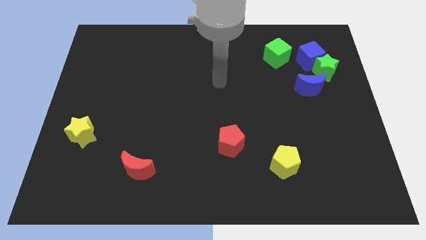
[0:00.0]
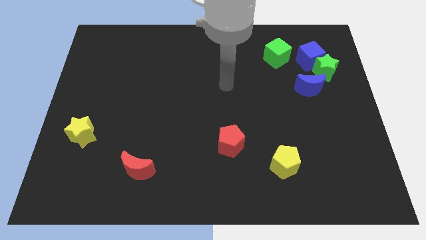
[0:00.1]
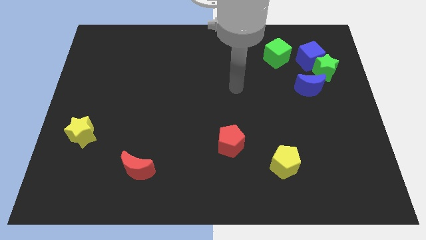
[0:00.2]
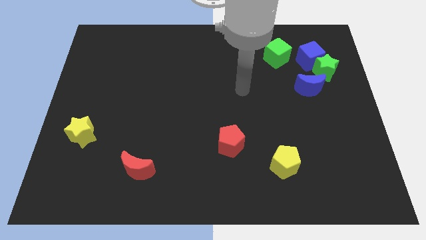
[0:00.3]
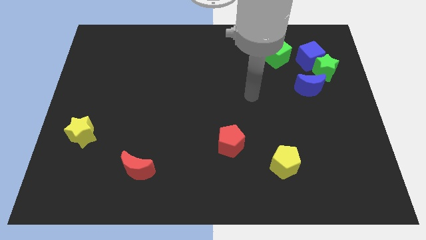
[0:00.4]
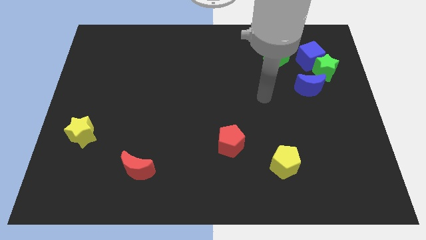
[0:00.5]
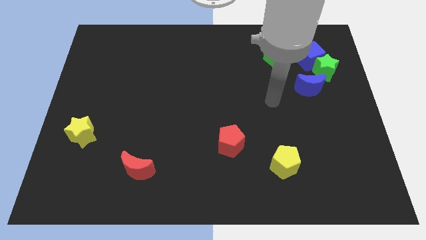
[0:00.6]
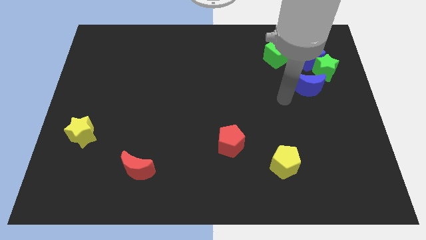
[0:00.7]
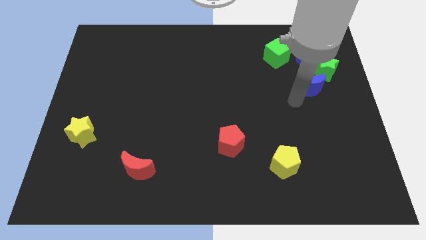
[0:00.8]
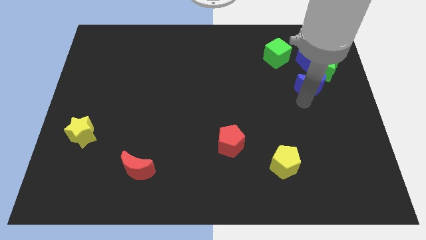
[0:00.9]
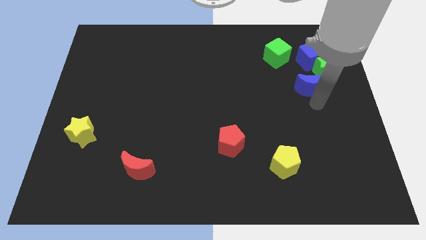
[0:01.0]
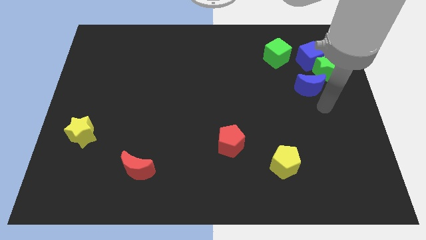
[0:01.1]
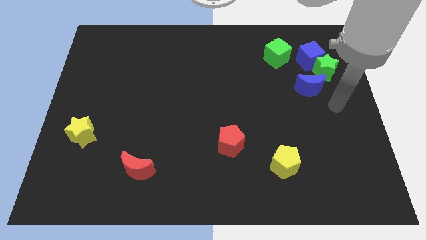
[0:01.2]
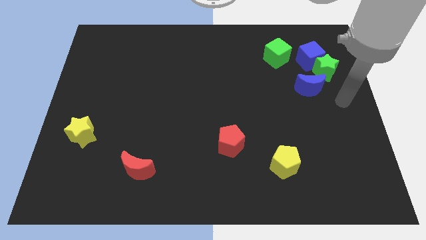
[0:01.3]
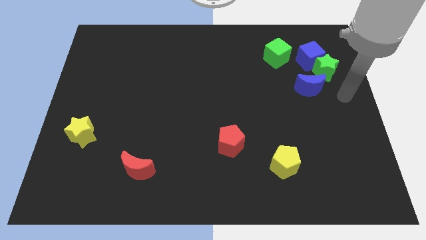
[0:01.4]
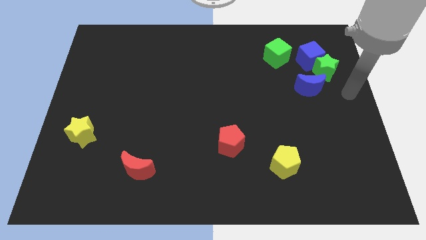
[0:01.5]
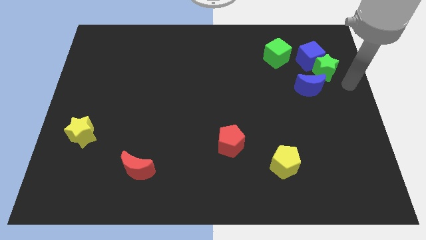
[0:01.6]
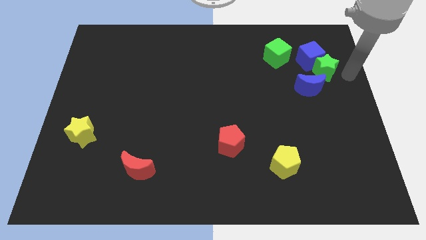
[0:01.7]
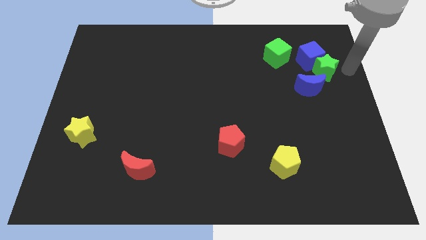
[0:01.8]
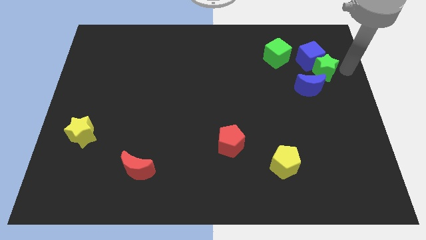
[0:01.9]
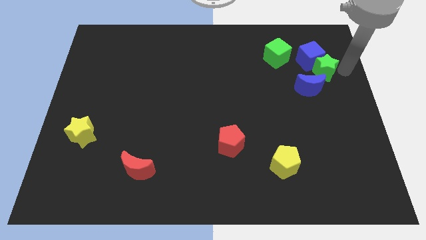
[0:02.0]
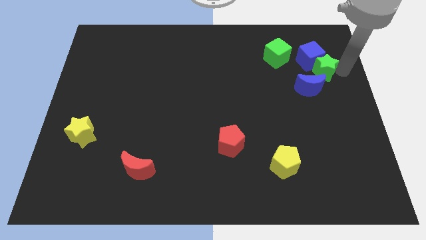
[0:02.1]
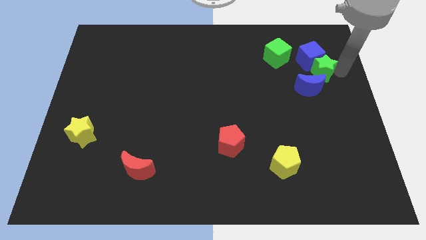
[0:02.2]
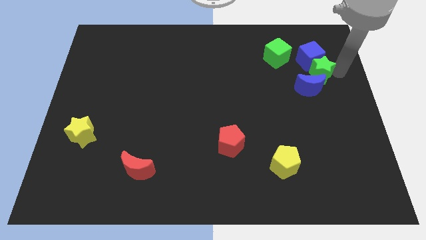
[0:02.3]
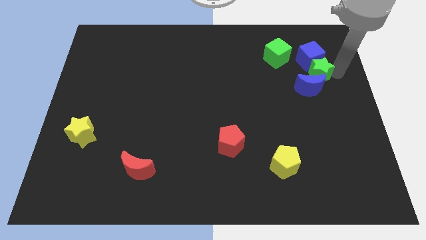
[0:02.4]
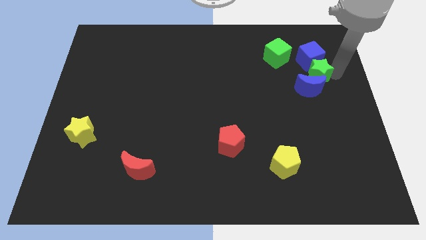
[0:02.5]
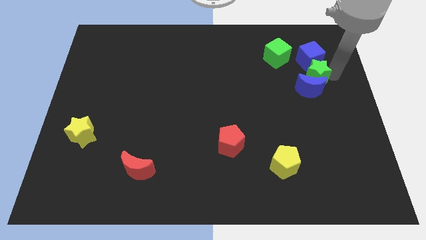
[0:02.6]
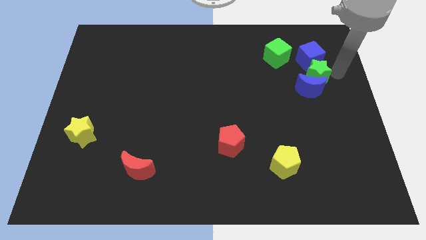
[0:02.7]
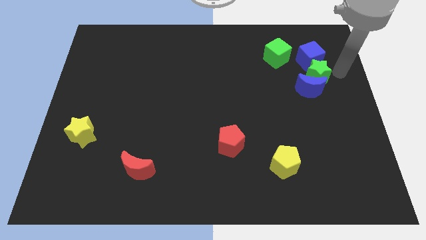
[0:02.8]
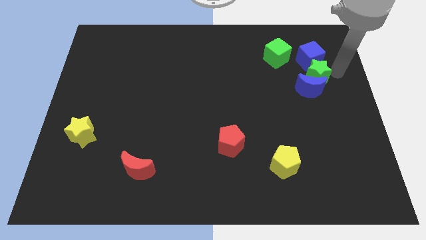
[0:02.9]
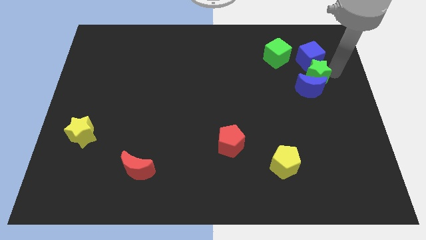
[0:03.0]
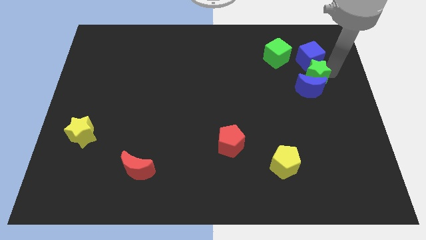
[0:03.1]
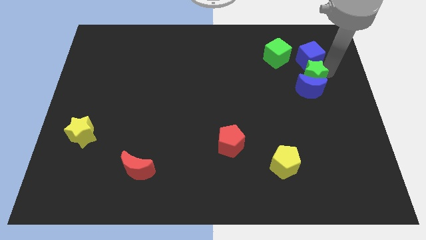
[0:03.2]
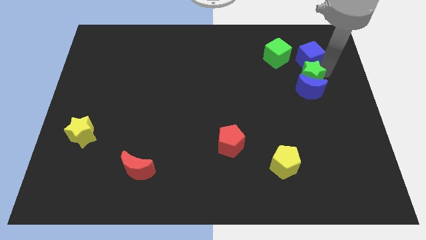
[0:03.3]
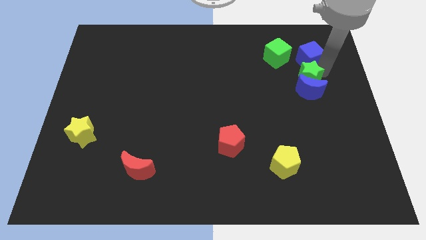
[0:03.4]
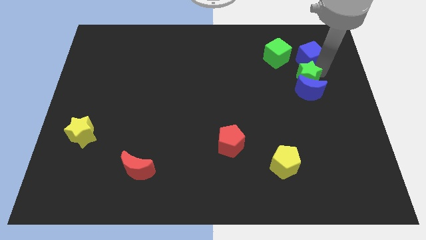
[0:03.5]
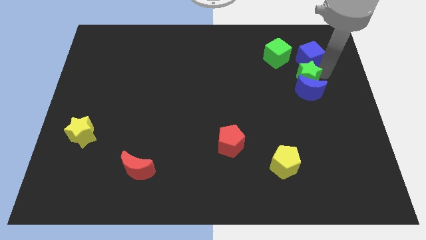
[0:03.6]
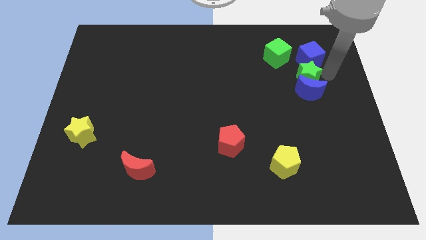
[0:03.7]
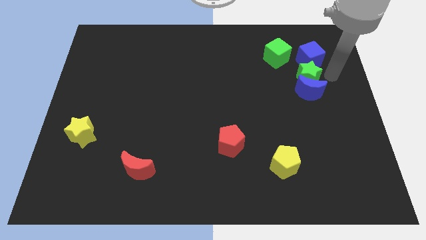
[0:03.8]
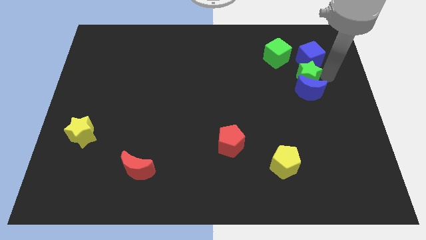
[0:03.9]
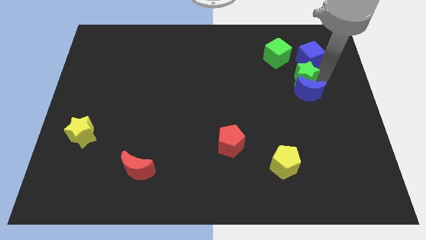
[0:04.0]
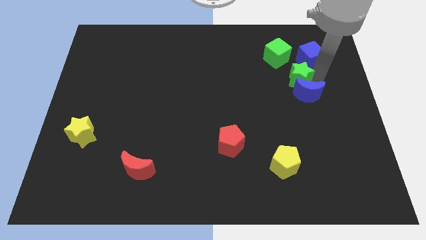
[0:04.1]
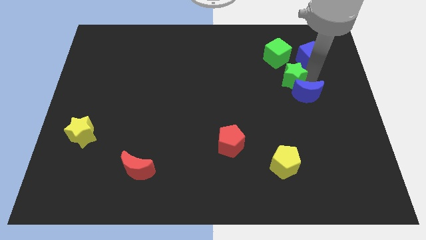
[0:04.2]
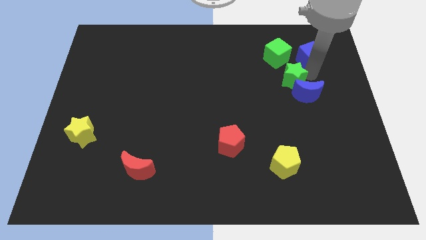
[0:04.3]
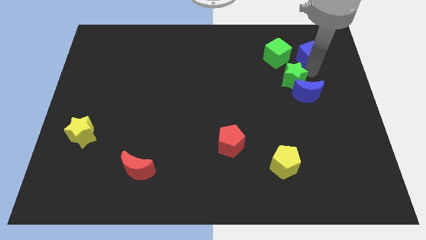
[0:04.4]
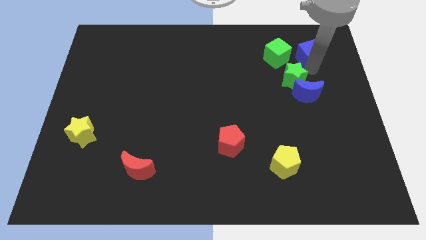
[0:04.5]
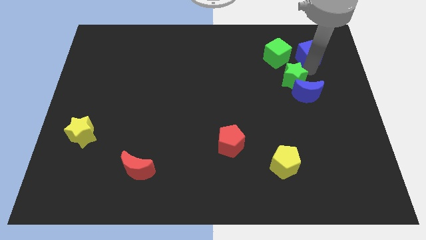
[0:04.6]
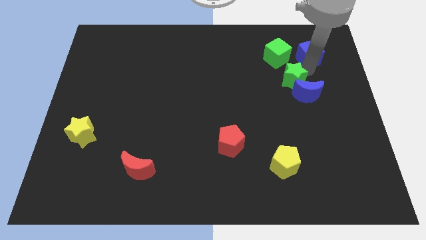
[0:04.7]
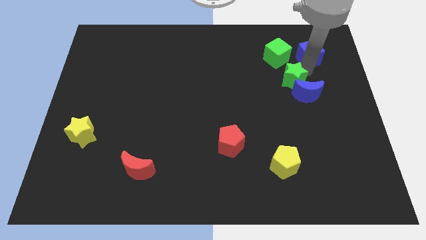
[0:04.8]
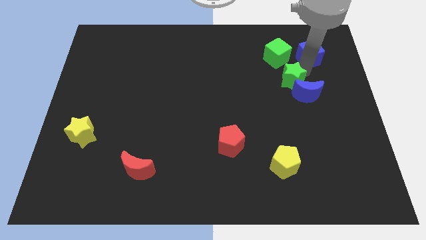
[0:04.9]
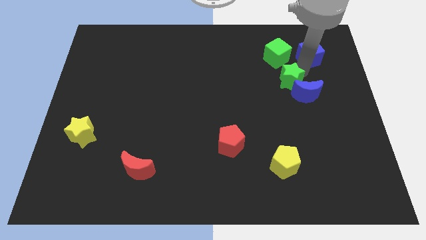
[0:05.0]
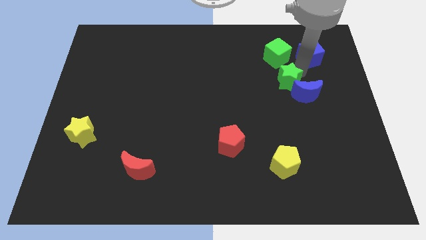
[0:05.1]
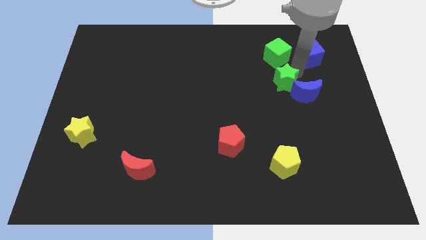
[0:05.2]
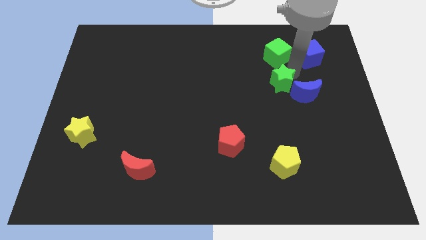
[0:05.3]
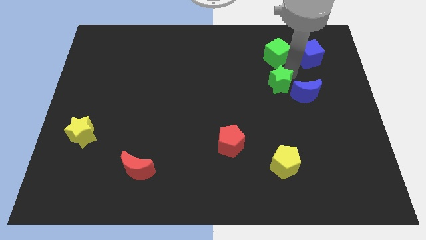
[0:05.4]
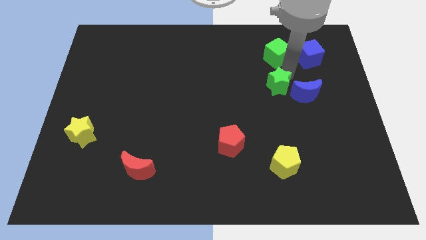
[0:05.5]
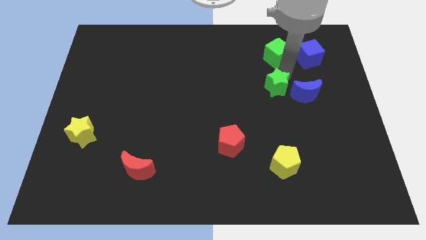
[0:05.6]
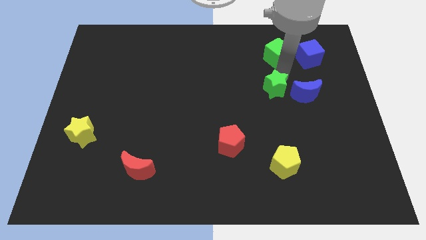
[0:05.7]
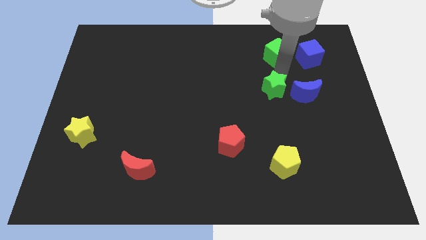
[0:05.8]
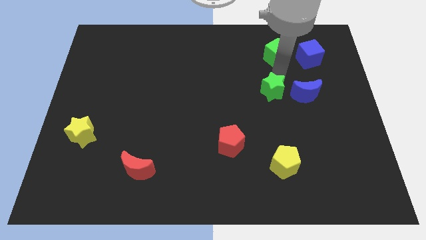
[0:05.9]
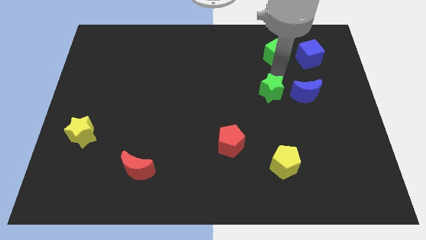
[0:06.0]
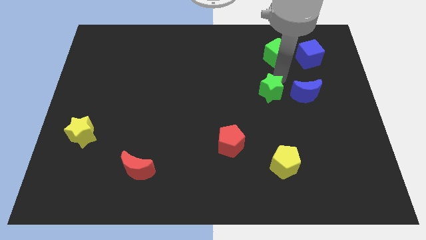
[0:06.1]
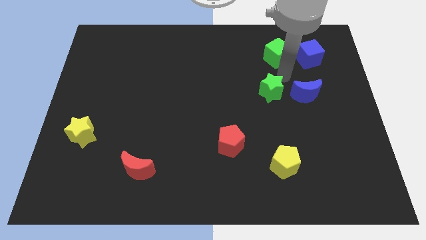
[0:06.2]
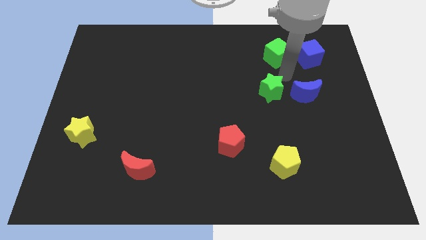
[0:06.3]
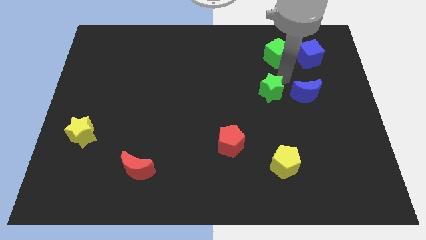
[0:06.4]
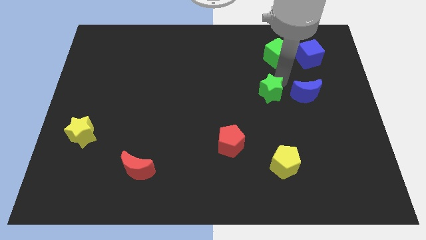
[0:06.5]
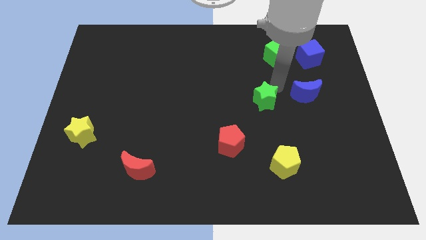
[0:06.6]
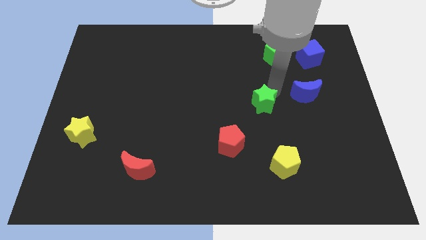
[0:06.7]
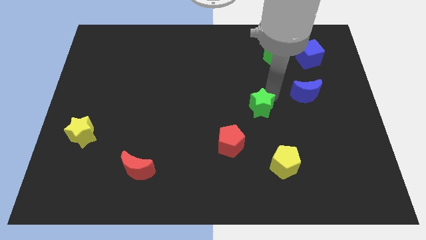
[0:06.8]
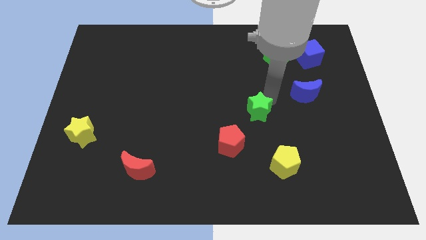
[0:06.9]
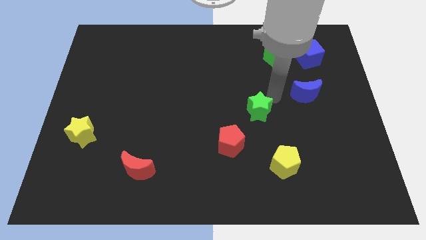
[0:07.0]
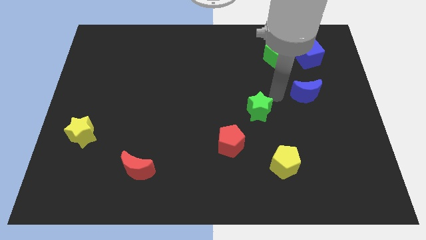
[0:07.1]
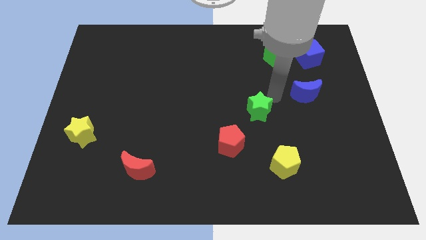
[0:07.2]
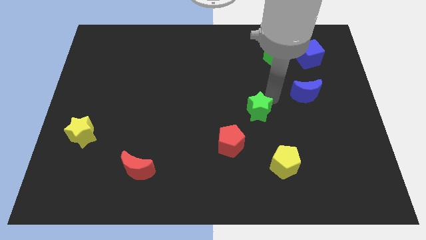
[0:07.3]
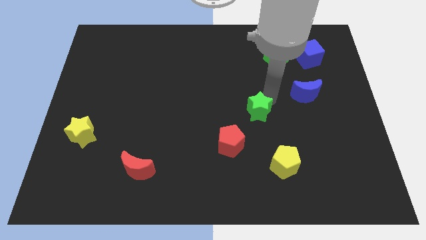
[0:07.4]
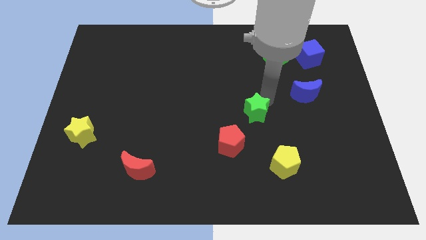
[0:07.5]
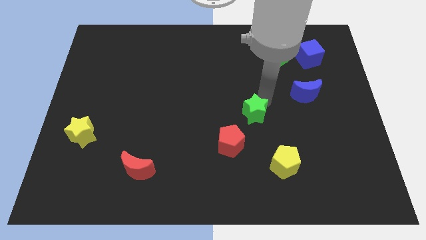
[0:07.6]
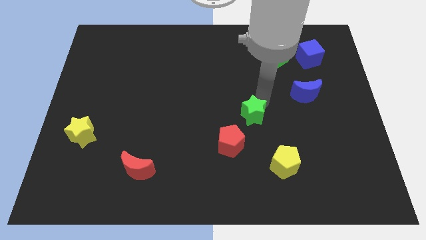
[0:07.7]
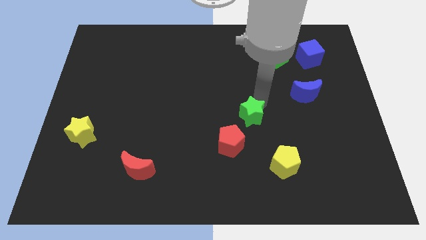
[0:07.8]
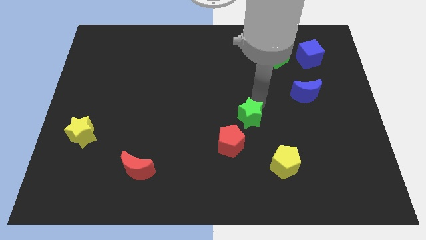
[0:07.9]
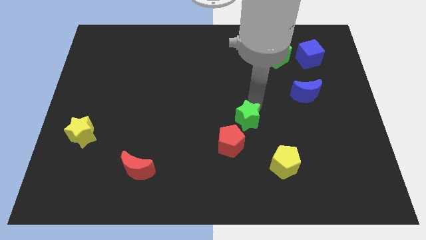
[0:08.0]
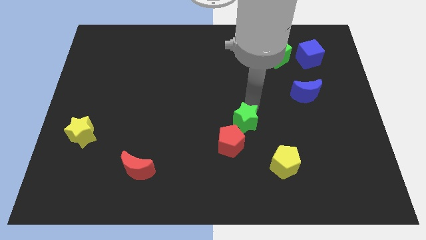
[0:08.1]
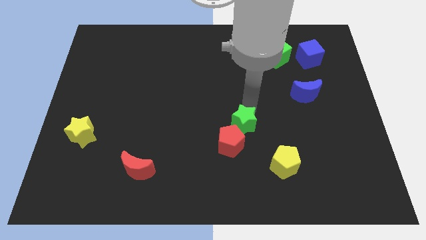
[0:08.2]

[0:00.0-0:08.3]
push the green star towards the red pentagon
